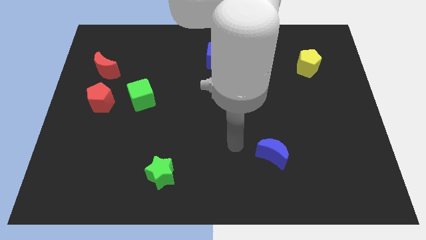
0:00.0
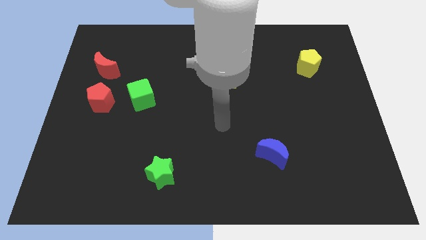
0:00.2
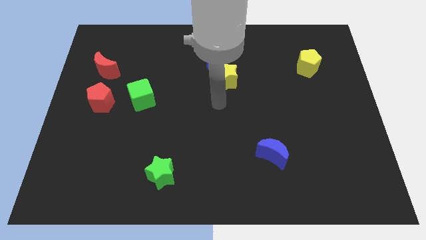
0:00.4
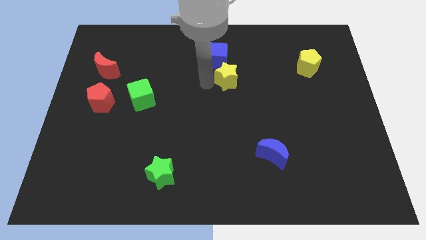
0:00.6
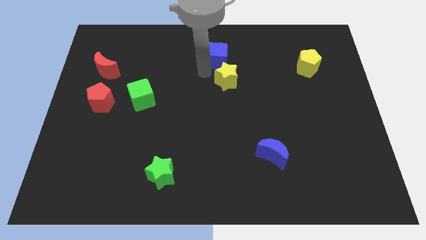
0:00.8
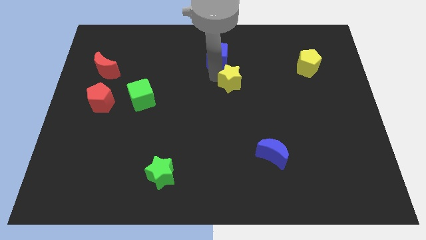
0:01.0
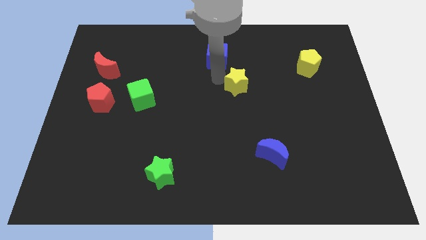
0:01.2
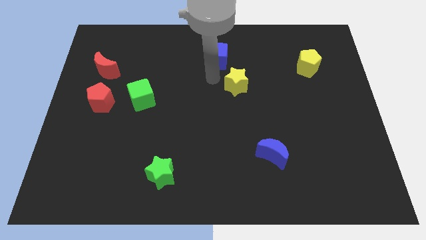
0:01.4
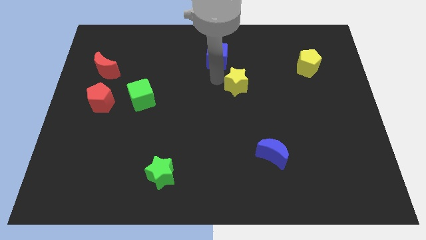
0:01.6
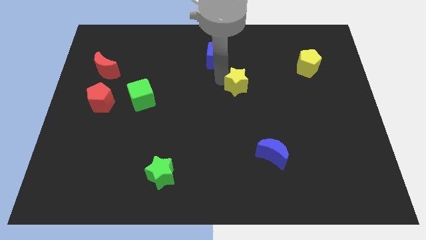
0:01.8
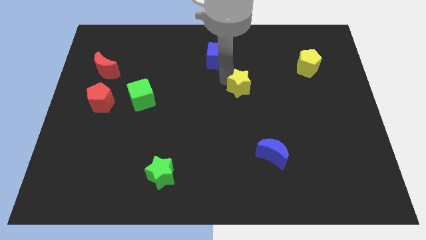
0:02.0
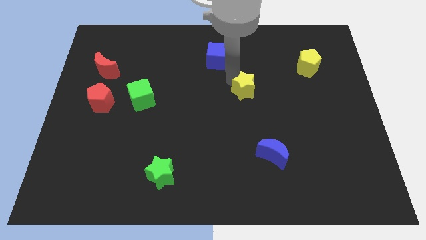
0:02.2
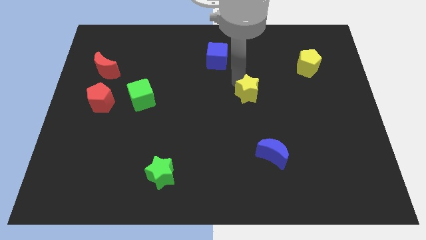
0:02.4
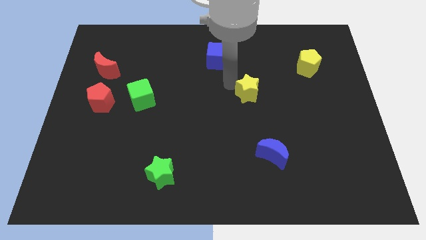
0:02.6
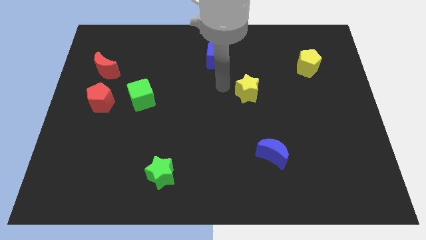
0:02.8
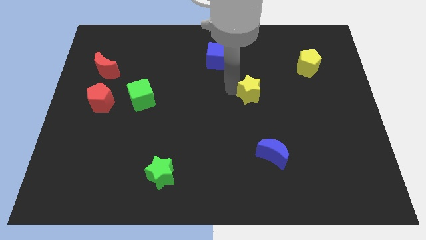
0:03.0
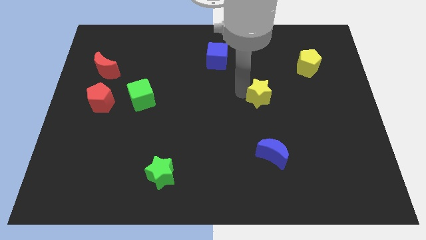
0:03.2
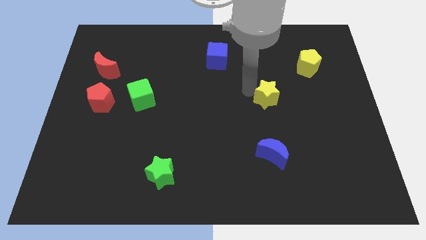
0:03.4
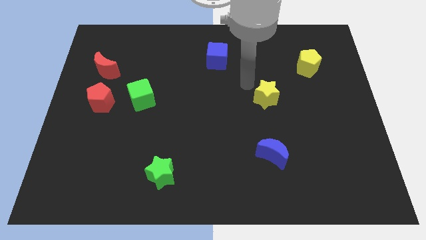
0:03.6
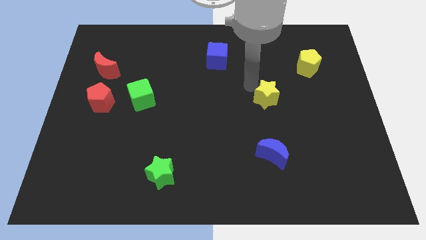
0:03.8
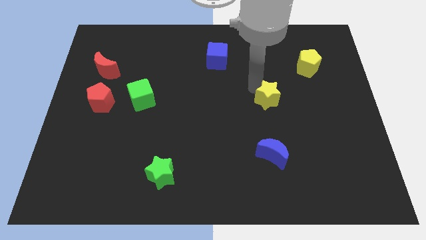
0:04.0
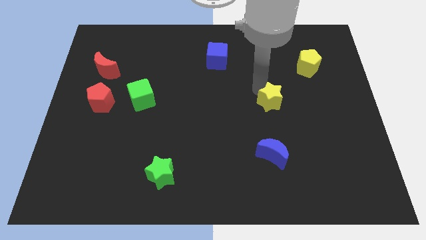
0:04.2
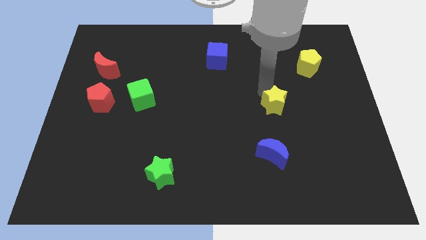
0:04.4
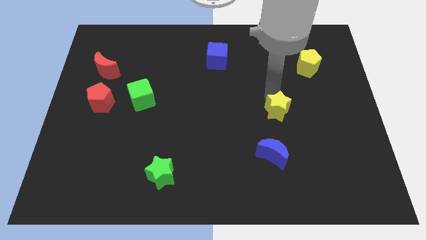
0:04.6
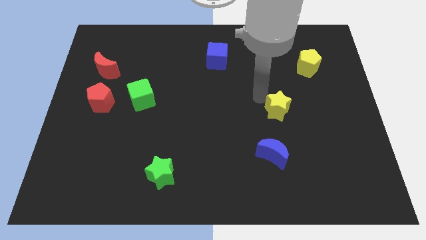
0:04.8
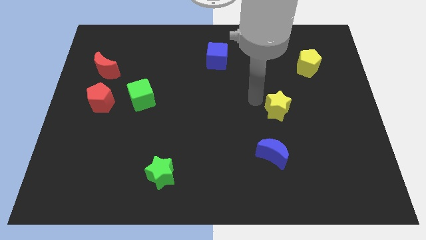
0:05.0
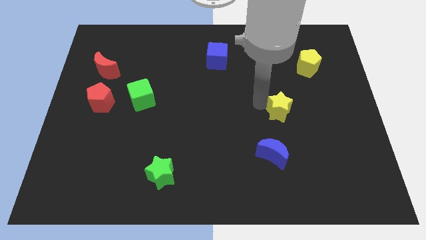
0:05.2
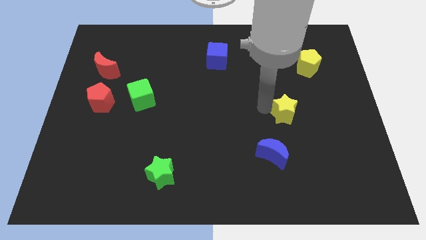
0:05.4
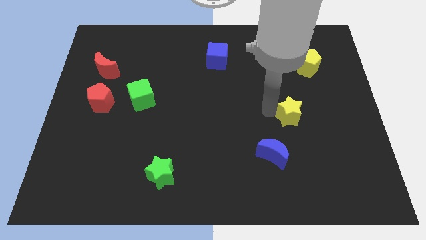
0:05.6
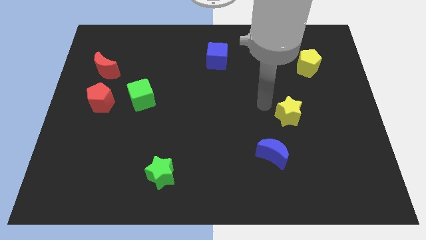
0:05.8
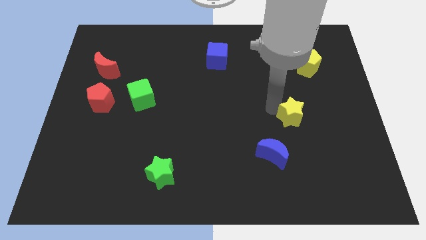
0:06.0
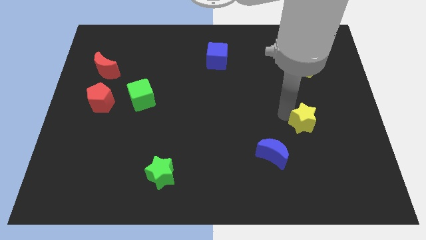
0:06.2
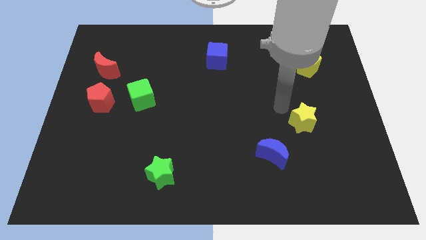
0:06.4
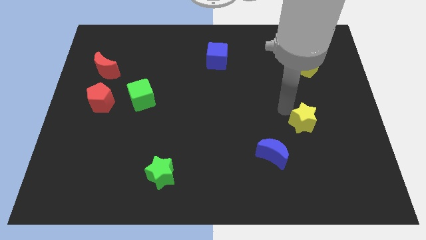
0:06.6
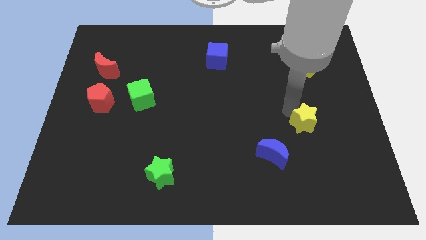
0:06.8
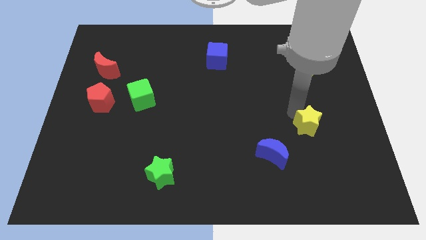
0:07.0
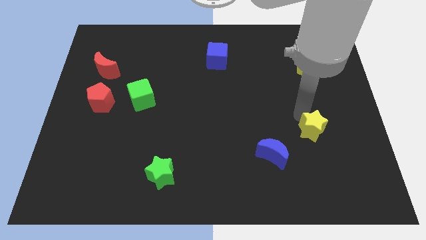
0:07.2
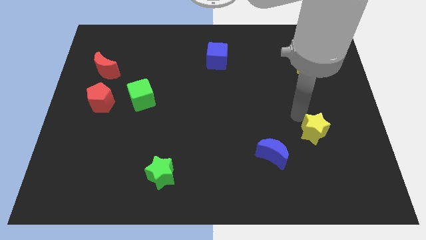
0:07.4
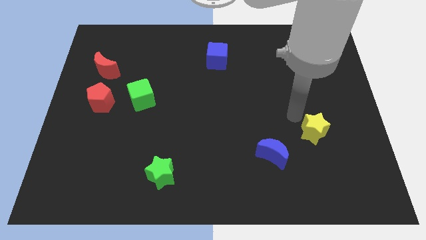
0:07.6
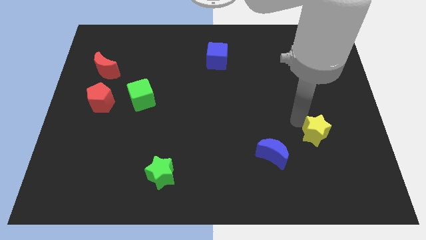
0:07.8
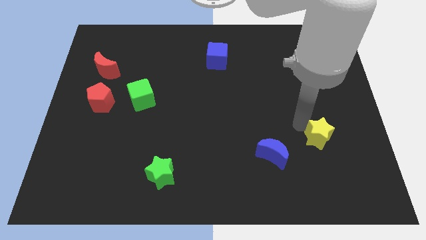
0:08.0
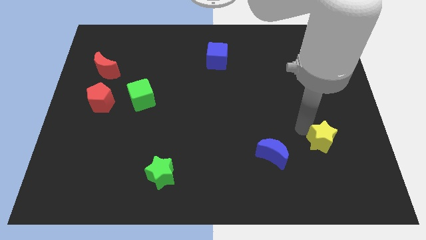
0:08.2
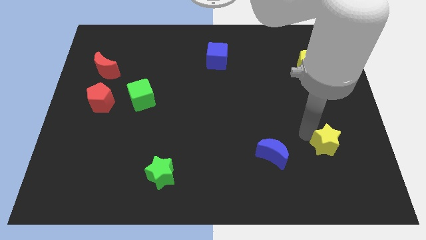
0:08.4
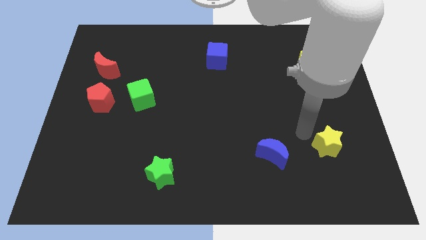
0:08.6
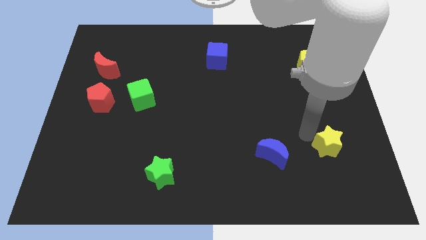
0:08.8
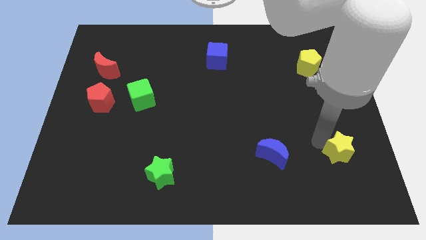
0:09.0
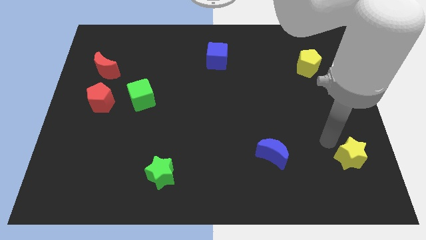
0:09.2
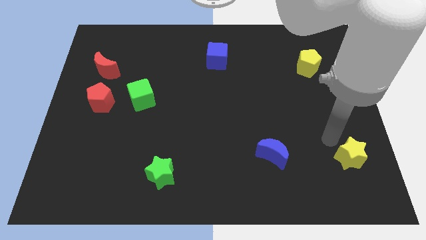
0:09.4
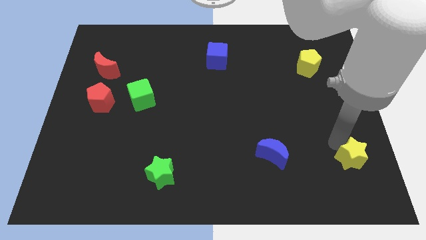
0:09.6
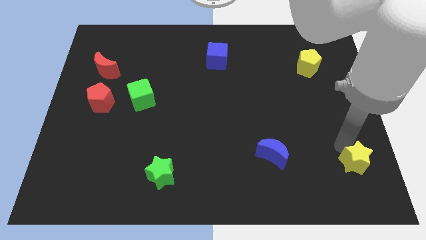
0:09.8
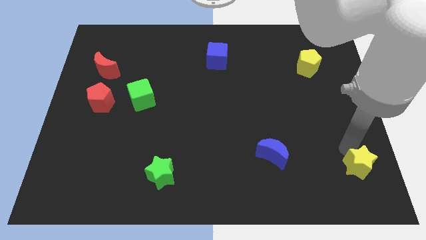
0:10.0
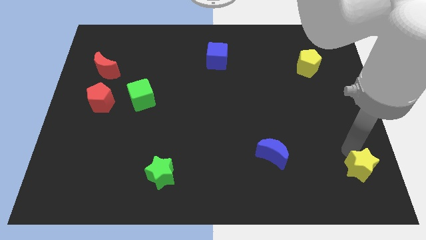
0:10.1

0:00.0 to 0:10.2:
slide the yellow star to the lower right corner

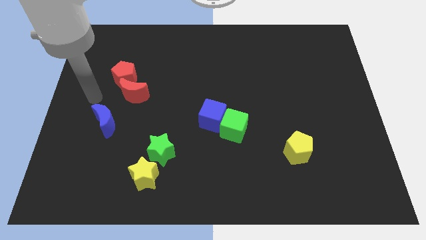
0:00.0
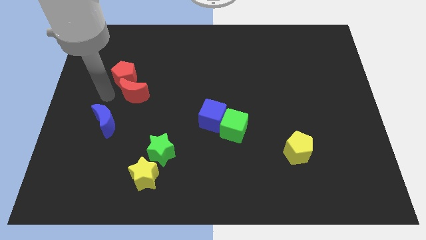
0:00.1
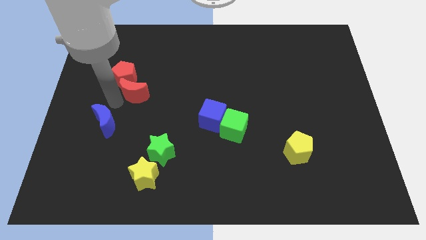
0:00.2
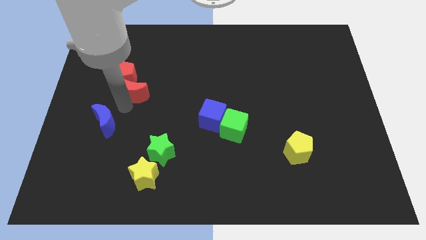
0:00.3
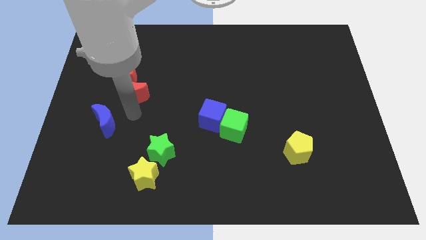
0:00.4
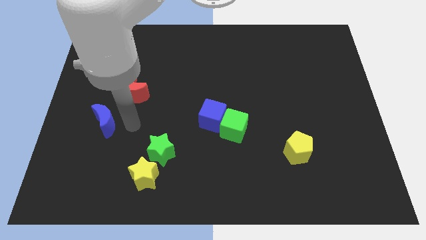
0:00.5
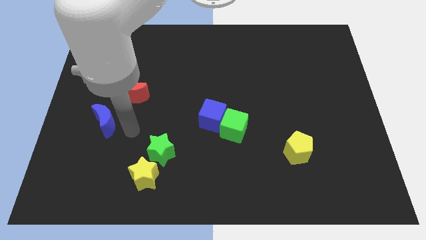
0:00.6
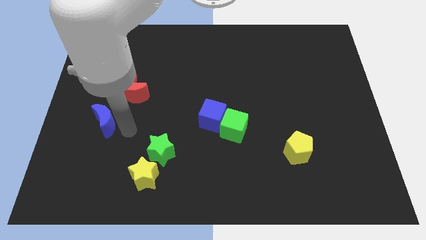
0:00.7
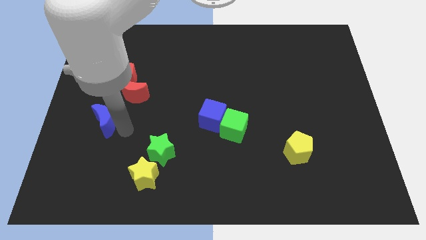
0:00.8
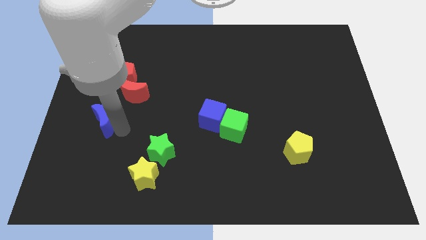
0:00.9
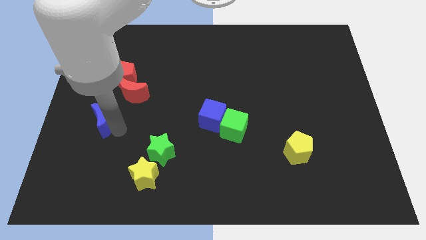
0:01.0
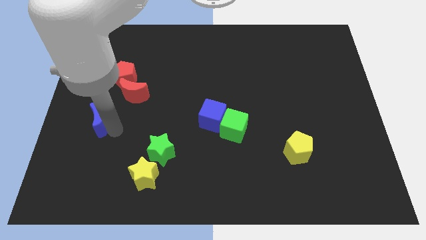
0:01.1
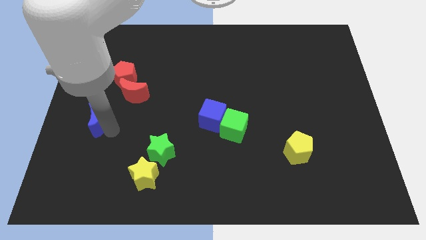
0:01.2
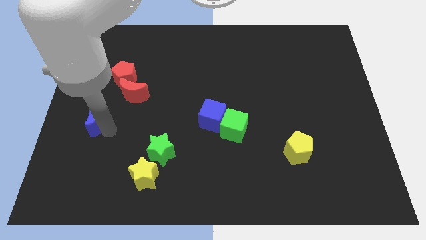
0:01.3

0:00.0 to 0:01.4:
move the blue moon to the left side
